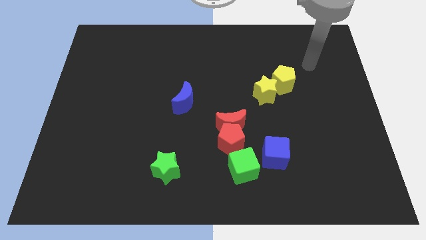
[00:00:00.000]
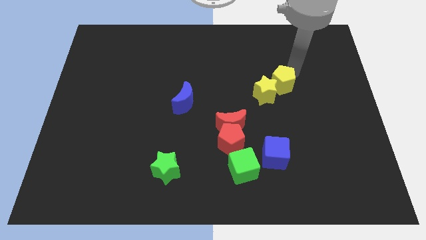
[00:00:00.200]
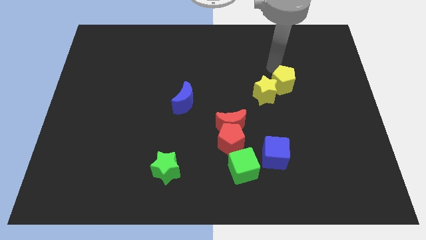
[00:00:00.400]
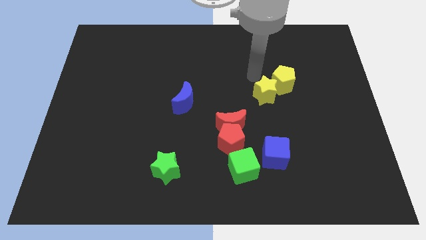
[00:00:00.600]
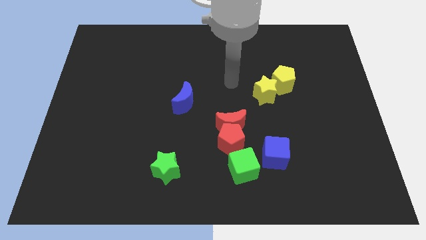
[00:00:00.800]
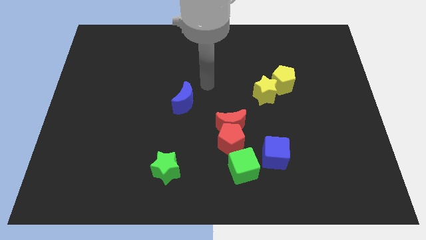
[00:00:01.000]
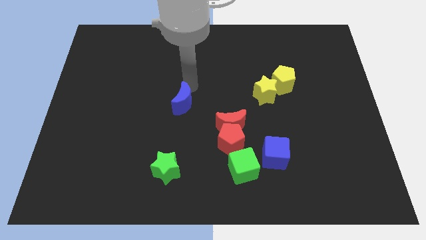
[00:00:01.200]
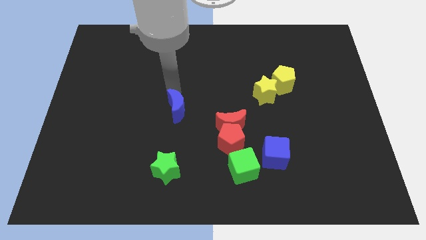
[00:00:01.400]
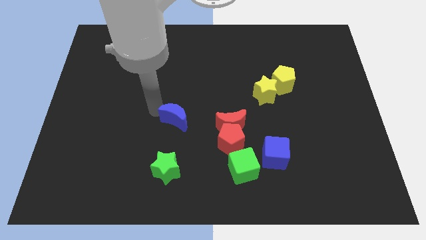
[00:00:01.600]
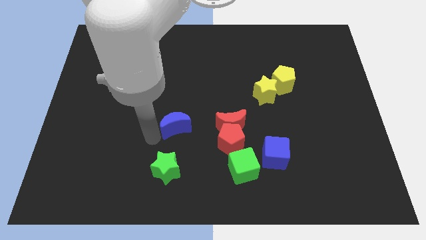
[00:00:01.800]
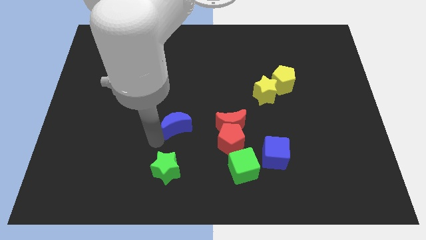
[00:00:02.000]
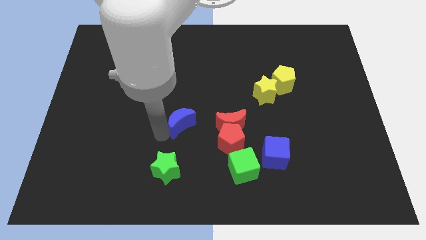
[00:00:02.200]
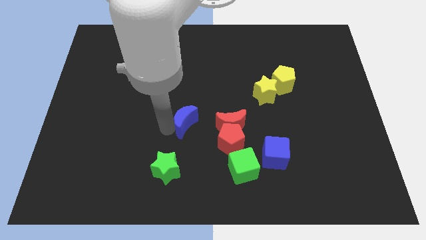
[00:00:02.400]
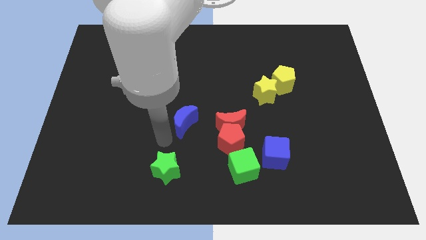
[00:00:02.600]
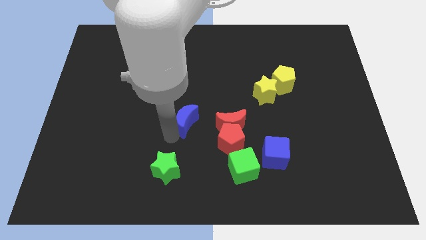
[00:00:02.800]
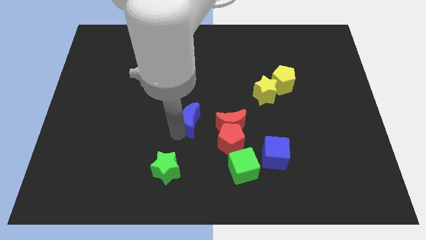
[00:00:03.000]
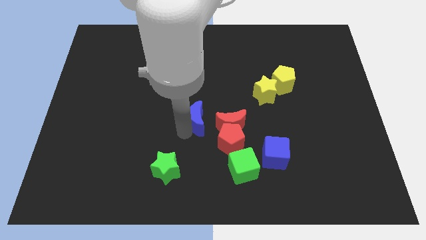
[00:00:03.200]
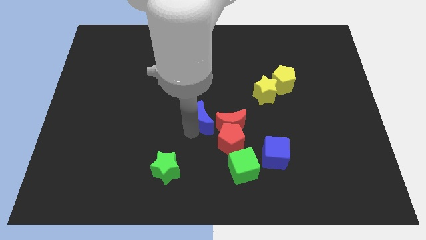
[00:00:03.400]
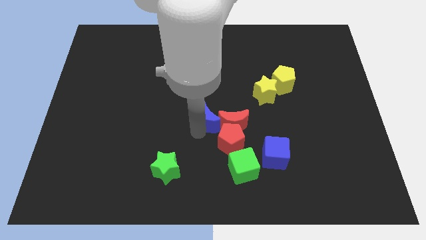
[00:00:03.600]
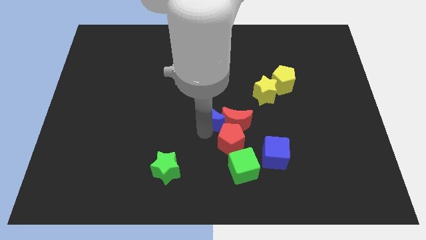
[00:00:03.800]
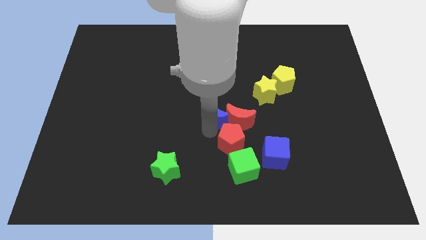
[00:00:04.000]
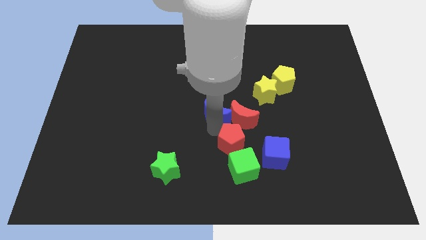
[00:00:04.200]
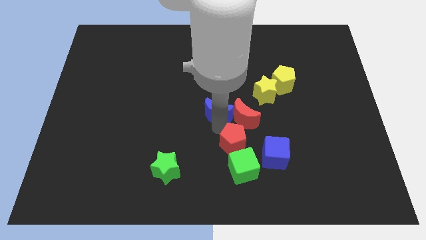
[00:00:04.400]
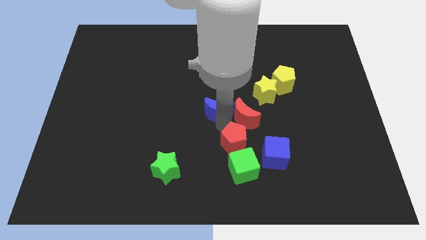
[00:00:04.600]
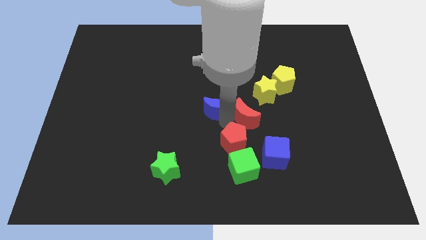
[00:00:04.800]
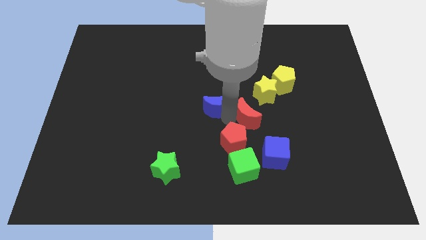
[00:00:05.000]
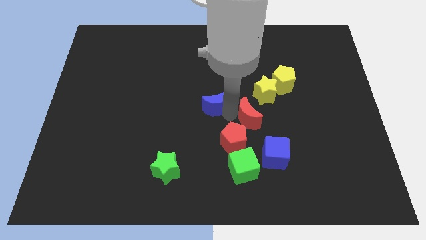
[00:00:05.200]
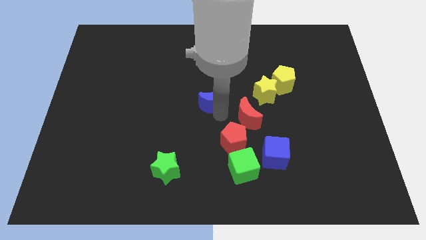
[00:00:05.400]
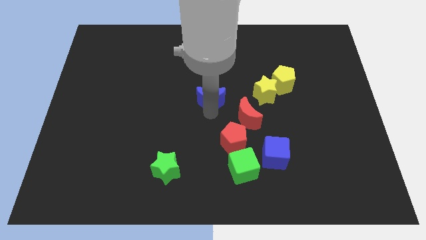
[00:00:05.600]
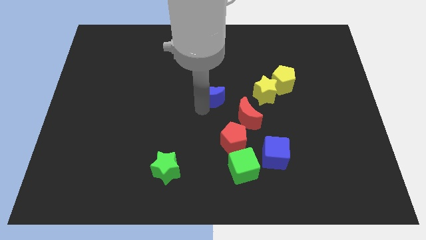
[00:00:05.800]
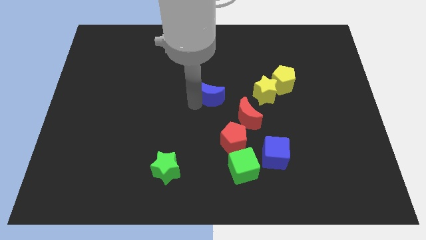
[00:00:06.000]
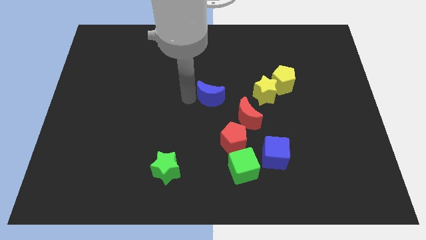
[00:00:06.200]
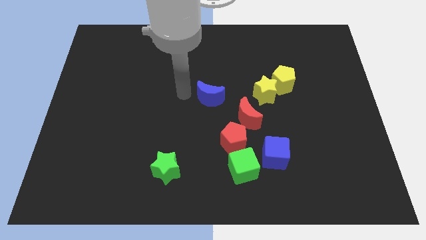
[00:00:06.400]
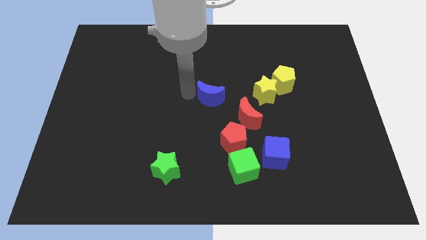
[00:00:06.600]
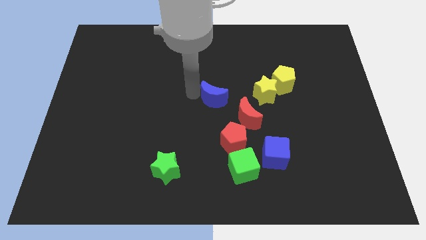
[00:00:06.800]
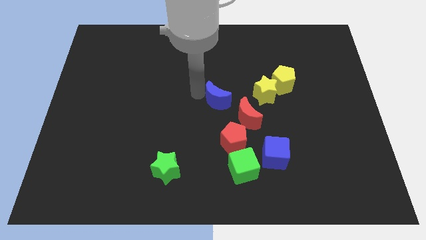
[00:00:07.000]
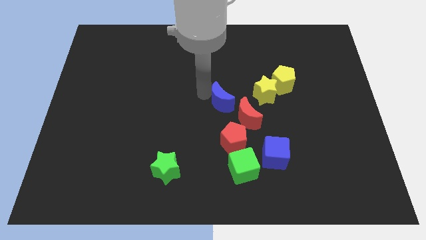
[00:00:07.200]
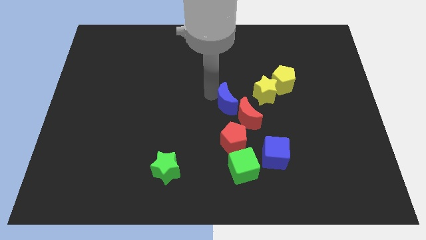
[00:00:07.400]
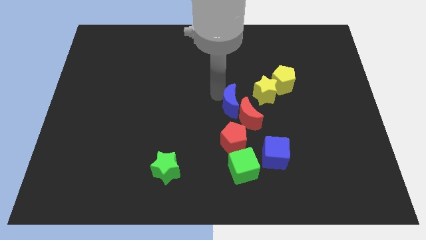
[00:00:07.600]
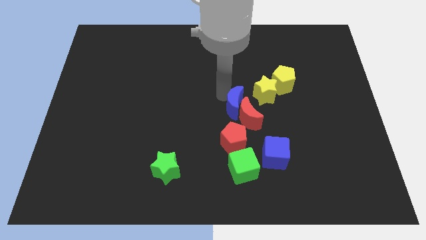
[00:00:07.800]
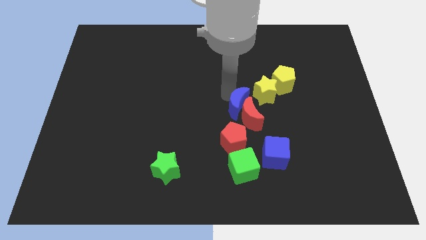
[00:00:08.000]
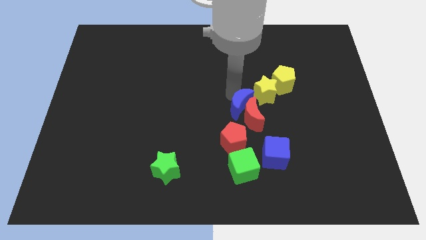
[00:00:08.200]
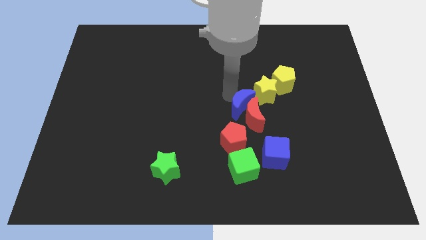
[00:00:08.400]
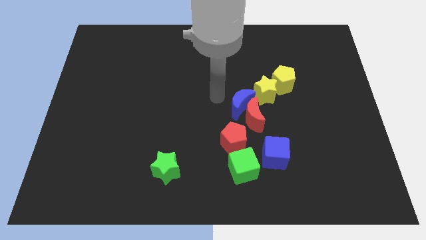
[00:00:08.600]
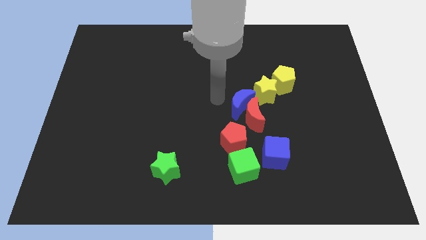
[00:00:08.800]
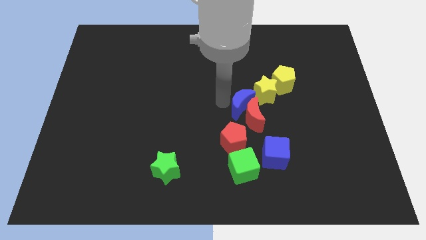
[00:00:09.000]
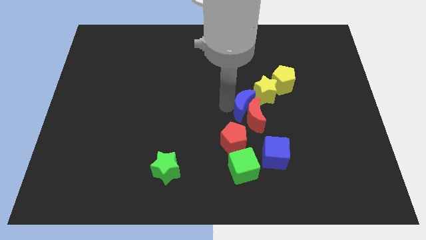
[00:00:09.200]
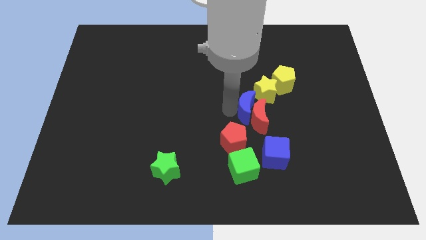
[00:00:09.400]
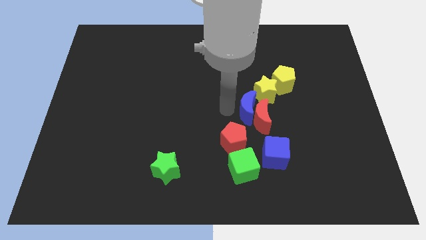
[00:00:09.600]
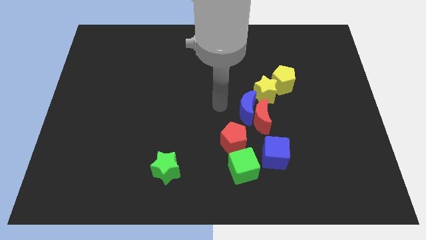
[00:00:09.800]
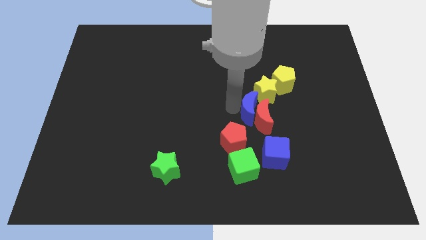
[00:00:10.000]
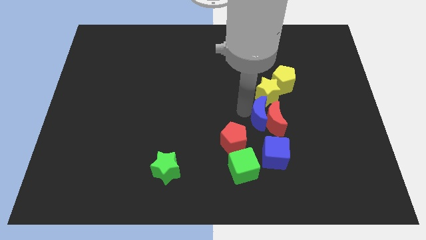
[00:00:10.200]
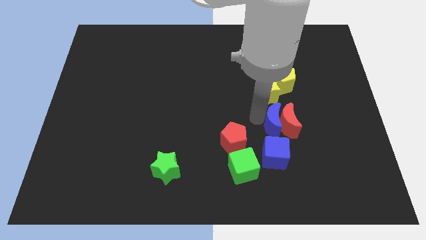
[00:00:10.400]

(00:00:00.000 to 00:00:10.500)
slide the blue moon to the bottom of the yellow pentagon

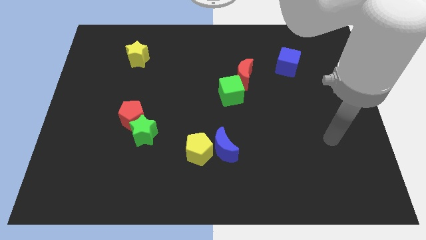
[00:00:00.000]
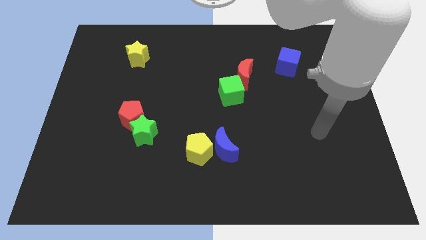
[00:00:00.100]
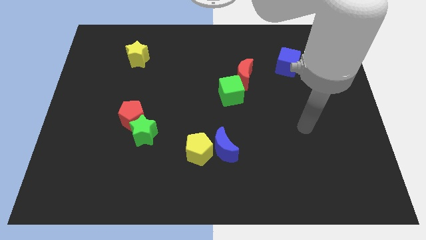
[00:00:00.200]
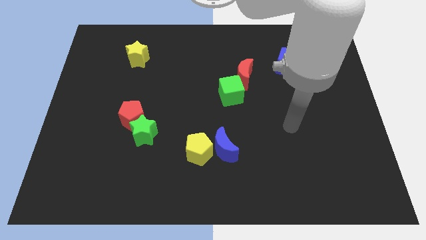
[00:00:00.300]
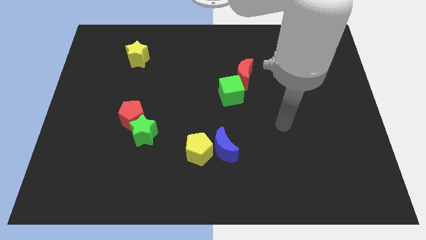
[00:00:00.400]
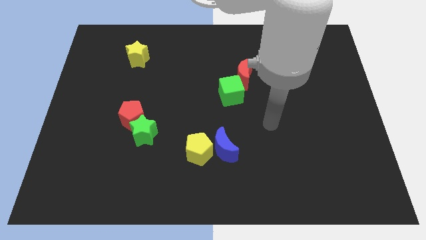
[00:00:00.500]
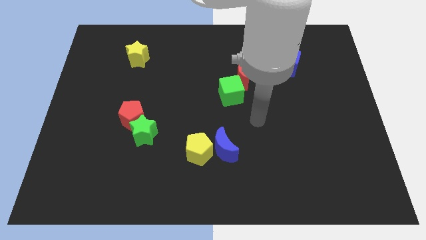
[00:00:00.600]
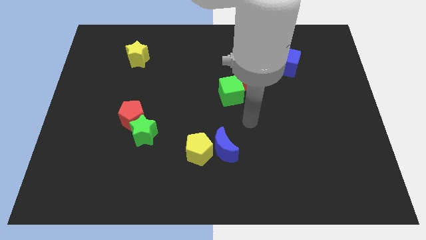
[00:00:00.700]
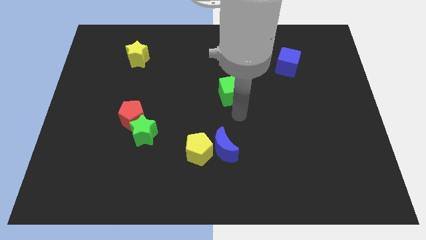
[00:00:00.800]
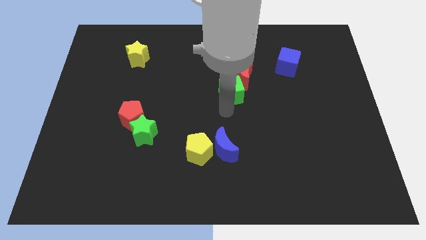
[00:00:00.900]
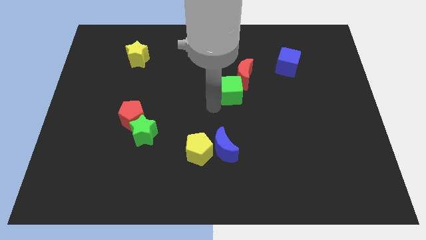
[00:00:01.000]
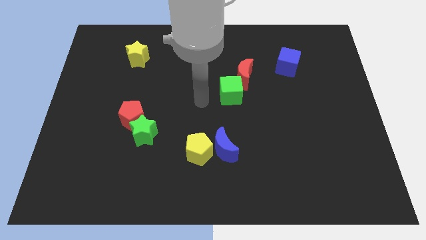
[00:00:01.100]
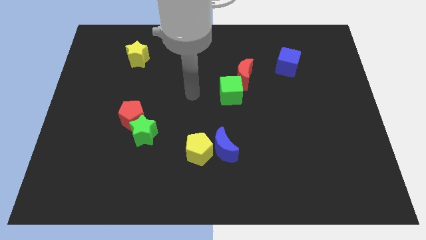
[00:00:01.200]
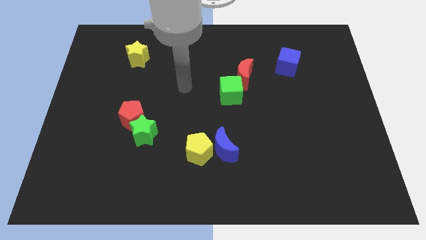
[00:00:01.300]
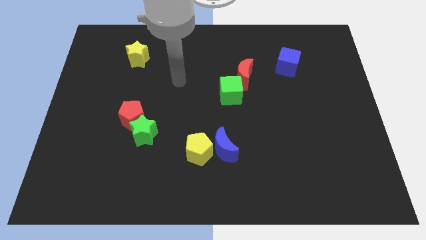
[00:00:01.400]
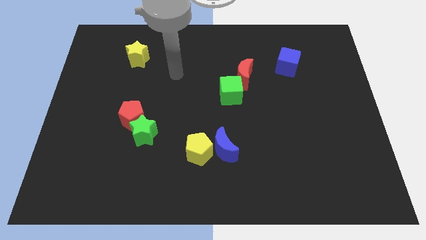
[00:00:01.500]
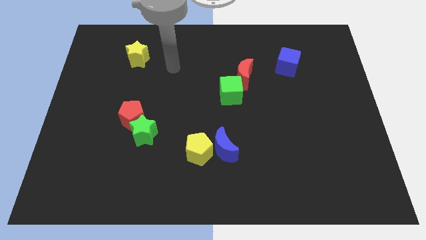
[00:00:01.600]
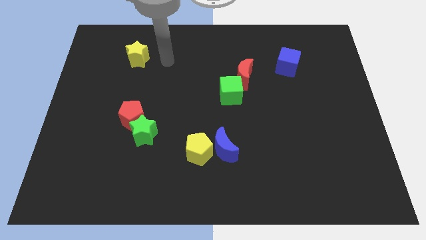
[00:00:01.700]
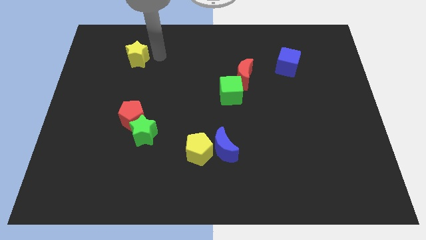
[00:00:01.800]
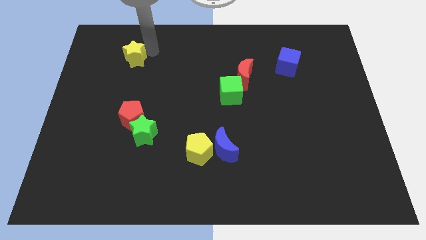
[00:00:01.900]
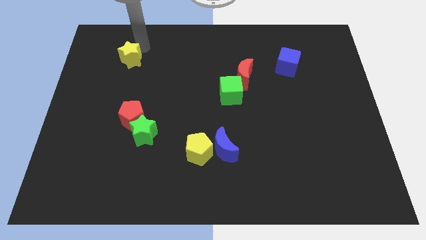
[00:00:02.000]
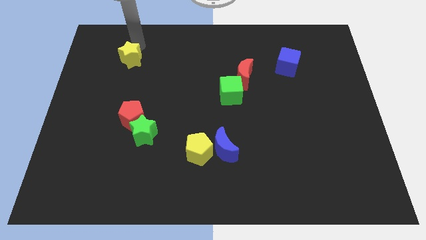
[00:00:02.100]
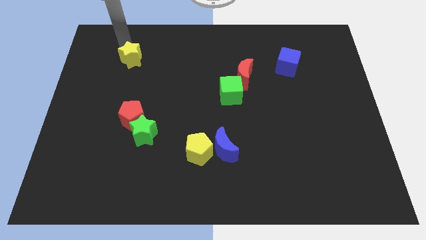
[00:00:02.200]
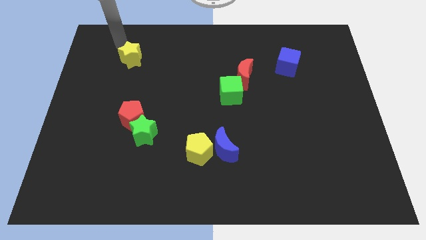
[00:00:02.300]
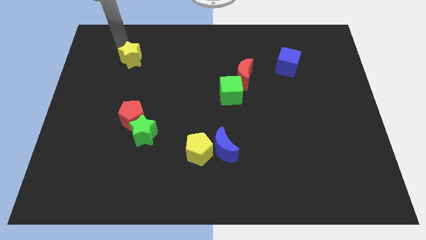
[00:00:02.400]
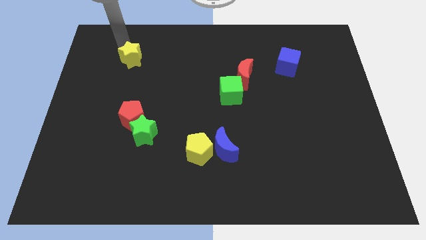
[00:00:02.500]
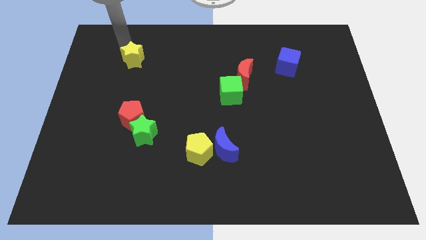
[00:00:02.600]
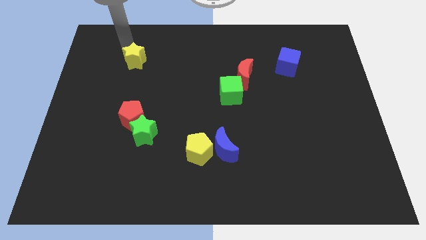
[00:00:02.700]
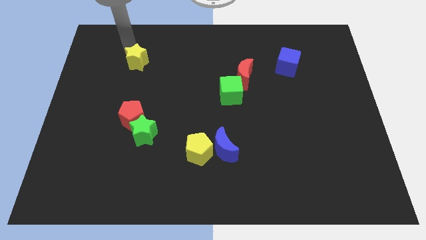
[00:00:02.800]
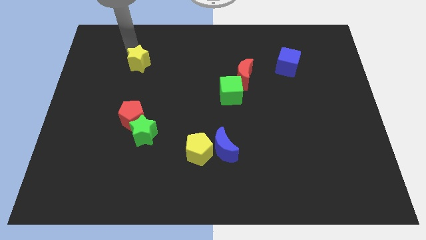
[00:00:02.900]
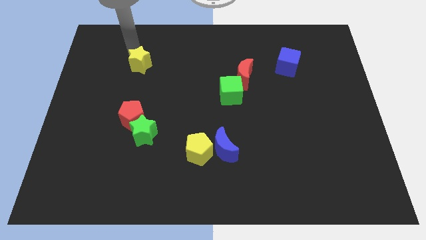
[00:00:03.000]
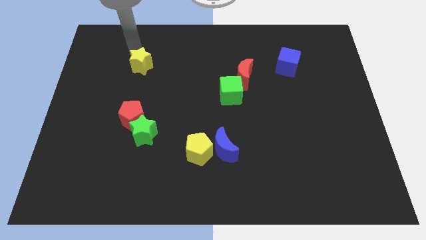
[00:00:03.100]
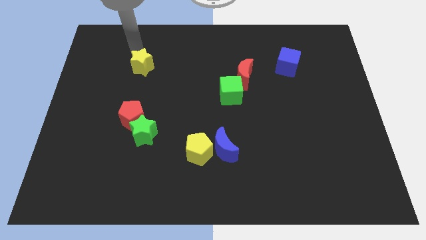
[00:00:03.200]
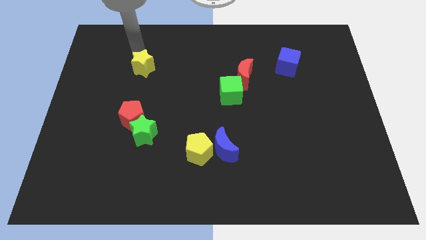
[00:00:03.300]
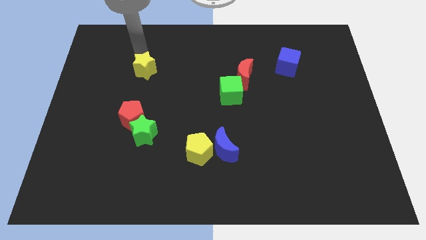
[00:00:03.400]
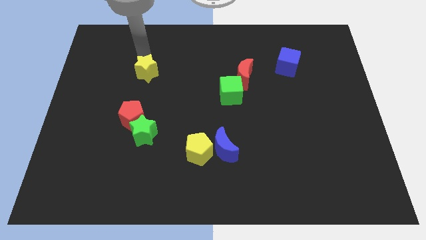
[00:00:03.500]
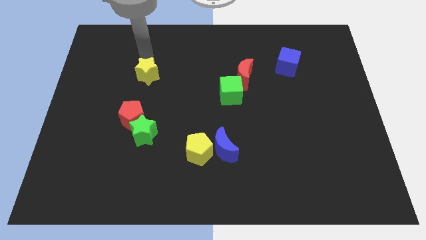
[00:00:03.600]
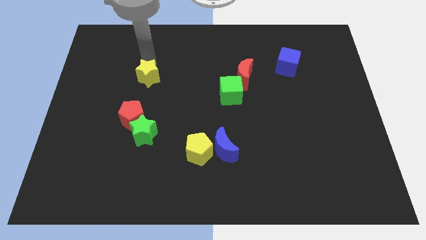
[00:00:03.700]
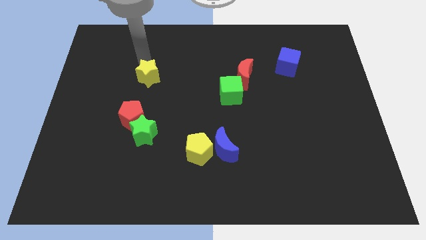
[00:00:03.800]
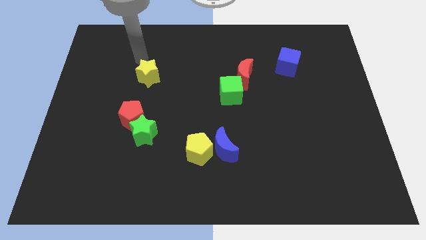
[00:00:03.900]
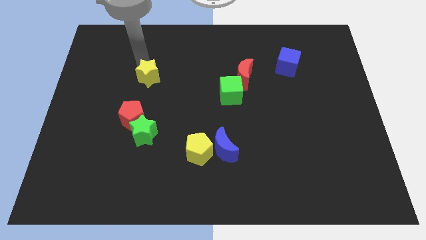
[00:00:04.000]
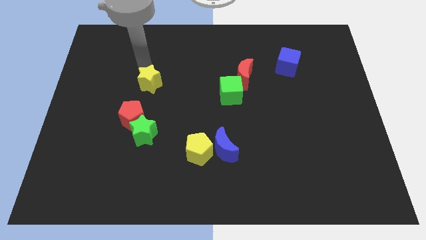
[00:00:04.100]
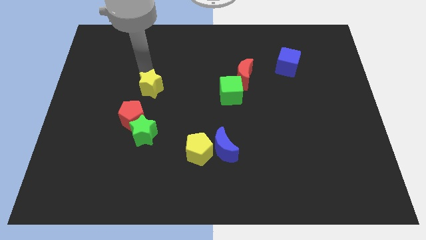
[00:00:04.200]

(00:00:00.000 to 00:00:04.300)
slide the yellow star to the top right of the red pentagon
